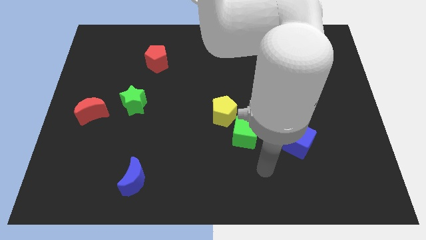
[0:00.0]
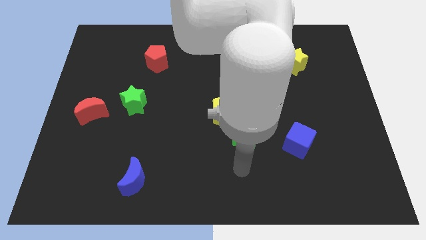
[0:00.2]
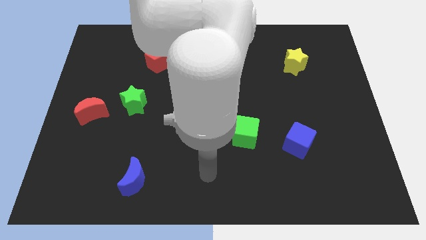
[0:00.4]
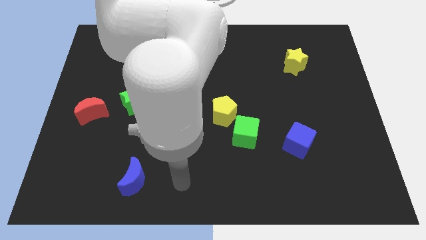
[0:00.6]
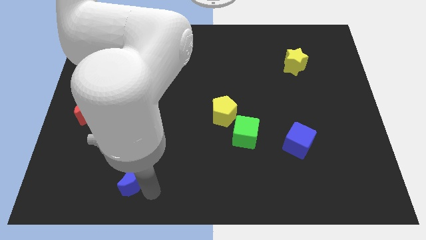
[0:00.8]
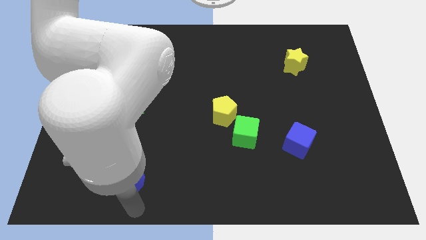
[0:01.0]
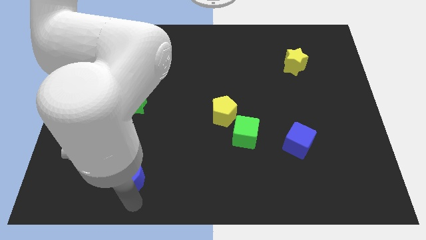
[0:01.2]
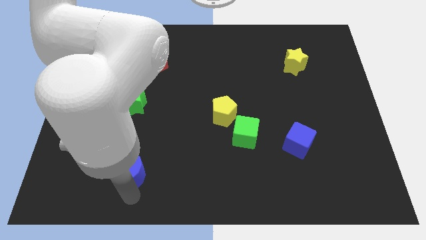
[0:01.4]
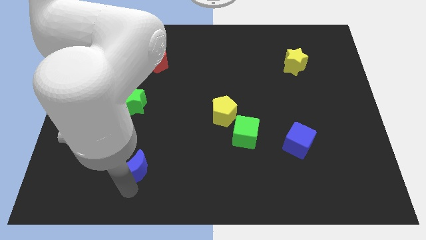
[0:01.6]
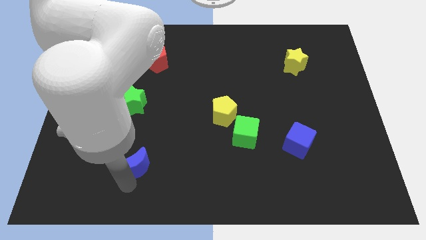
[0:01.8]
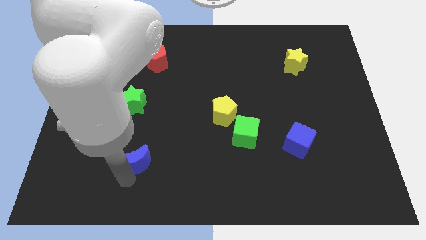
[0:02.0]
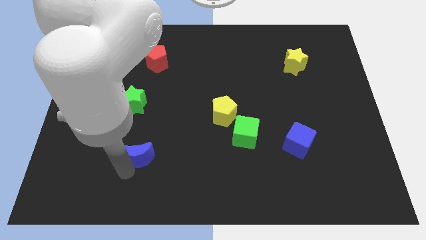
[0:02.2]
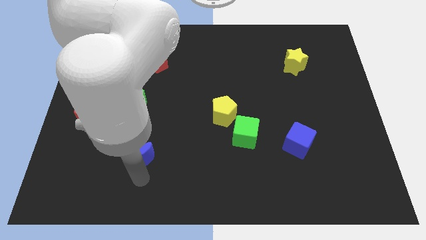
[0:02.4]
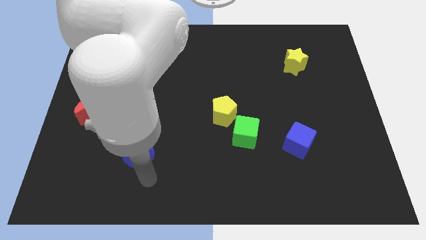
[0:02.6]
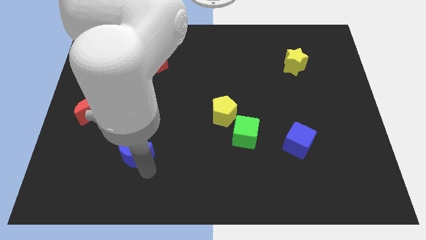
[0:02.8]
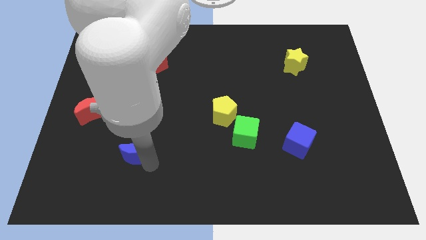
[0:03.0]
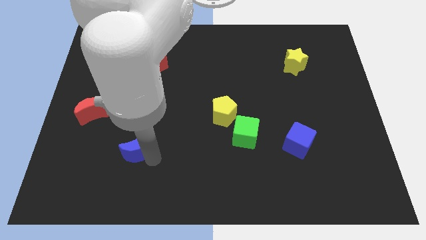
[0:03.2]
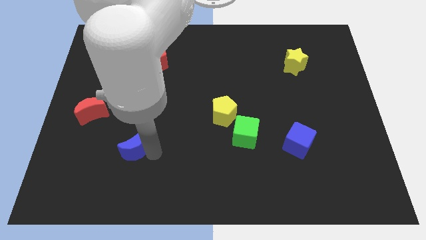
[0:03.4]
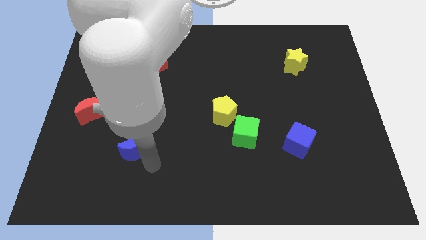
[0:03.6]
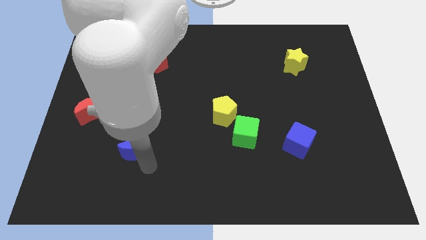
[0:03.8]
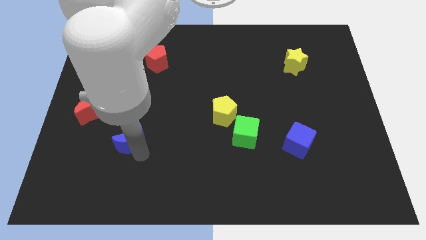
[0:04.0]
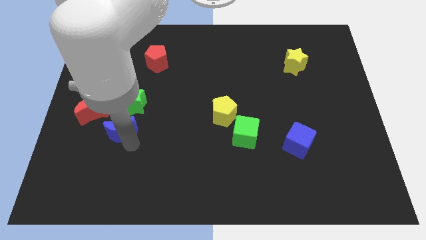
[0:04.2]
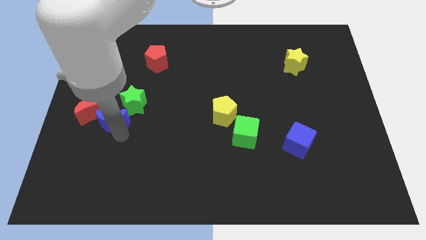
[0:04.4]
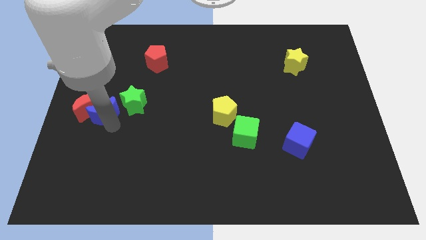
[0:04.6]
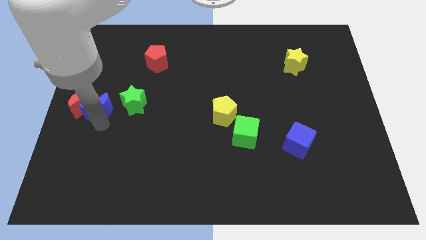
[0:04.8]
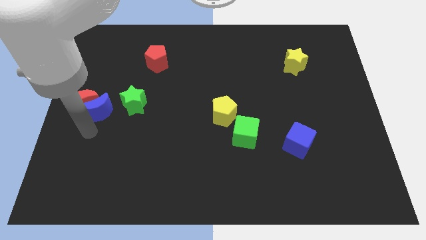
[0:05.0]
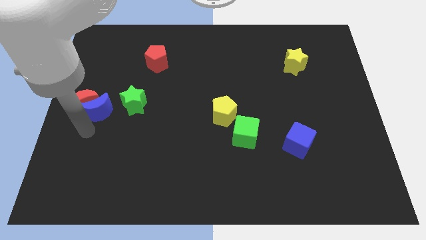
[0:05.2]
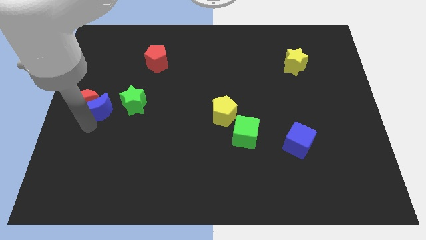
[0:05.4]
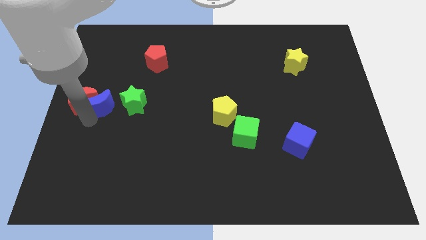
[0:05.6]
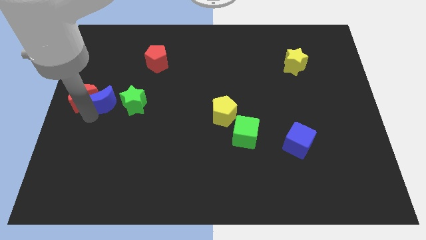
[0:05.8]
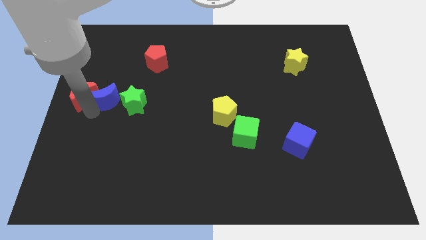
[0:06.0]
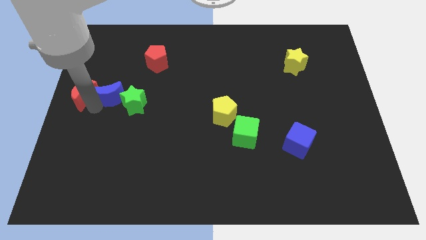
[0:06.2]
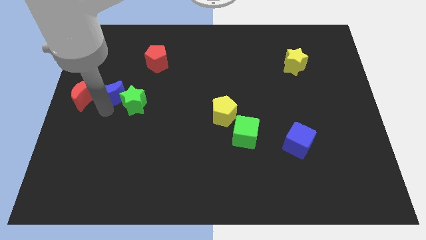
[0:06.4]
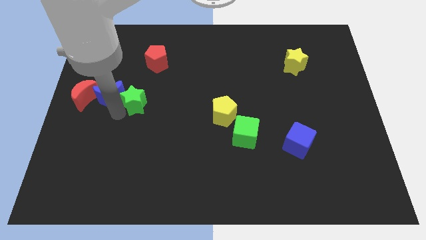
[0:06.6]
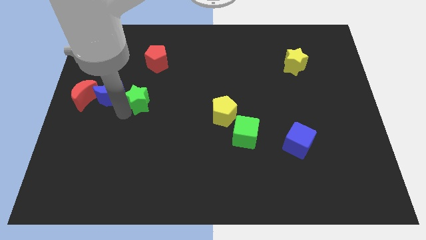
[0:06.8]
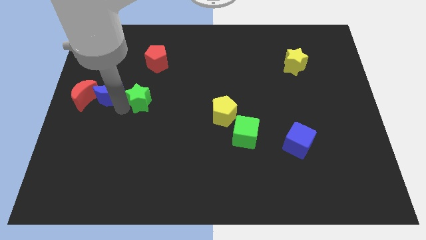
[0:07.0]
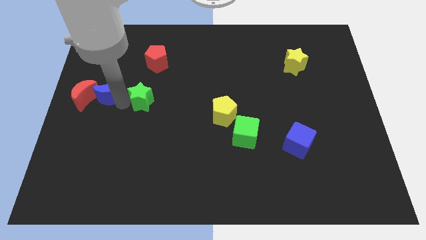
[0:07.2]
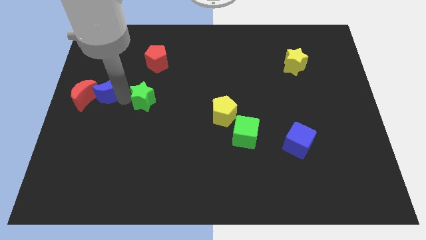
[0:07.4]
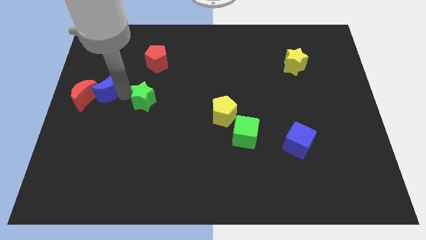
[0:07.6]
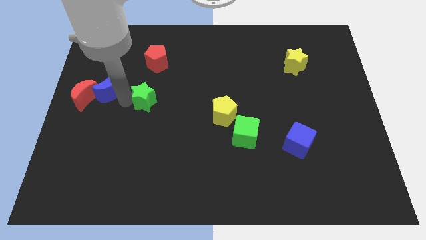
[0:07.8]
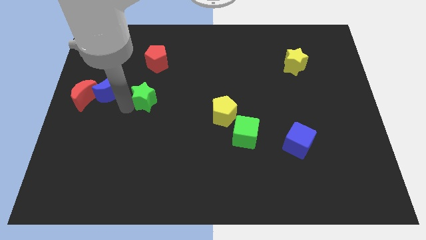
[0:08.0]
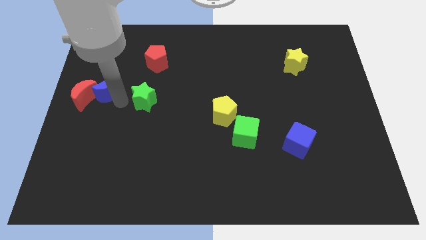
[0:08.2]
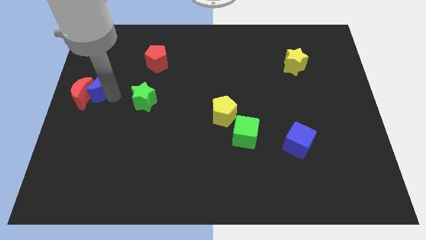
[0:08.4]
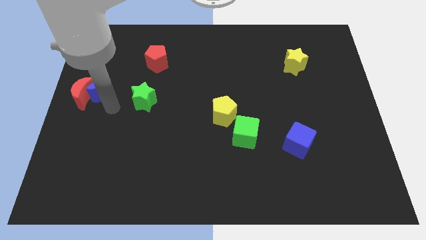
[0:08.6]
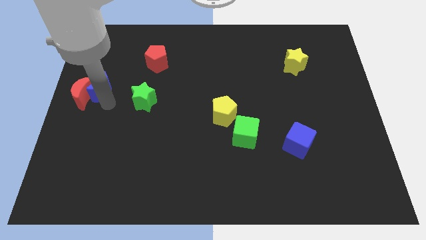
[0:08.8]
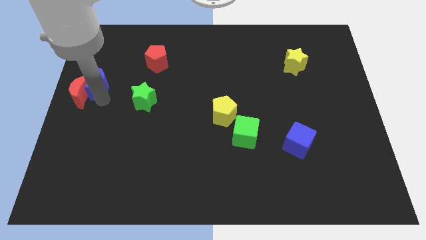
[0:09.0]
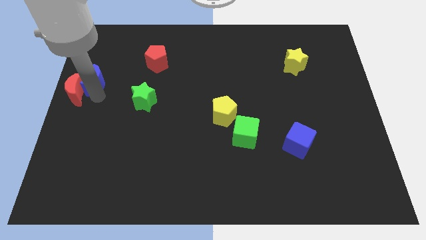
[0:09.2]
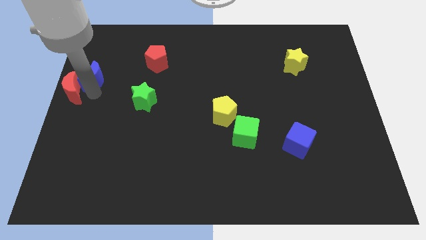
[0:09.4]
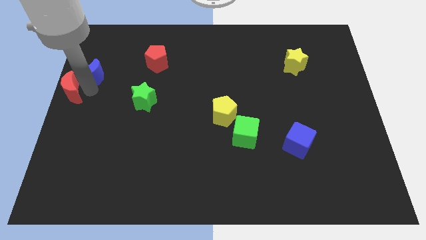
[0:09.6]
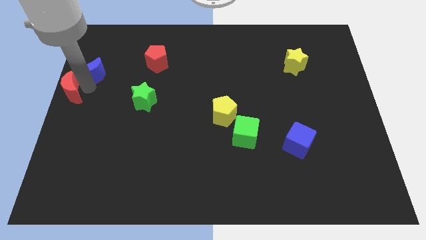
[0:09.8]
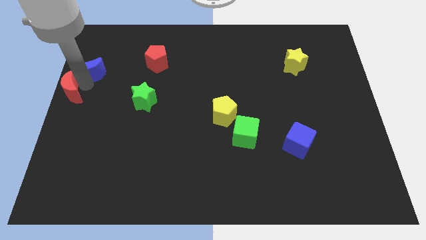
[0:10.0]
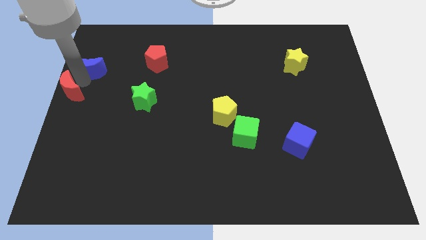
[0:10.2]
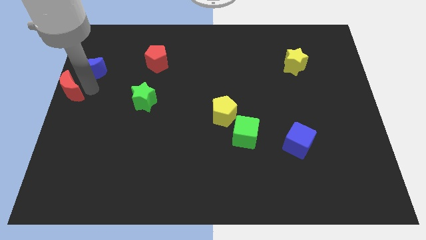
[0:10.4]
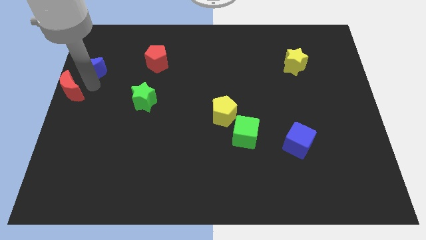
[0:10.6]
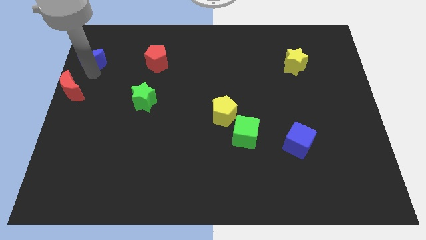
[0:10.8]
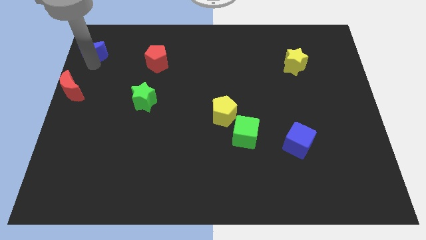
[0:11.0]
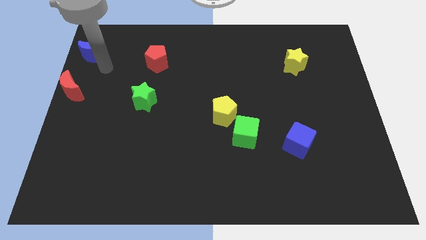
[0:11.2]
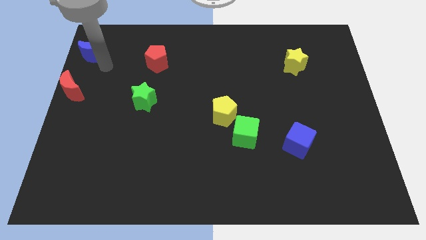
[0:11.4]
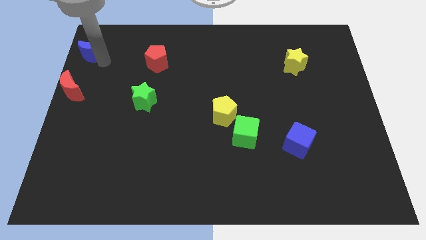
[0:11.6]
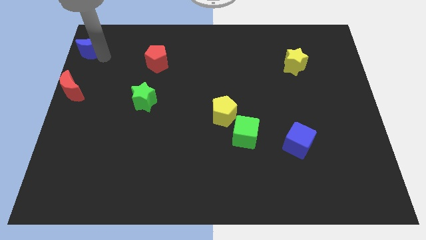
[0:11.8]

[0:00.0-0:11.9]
put the blue moon to the top left of the board
